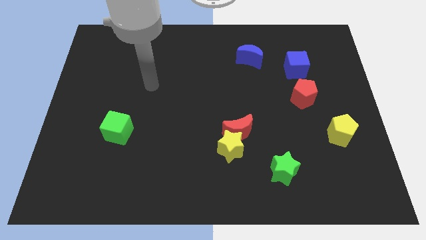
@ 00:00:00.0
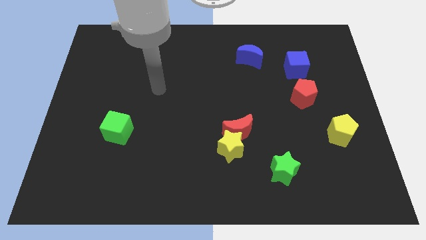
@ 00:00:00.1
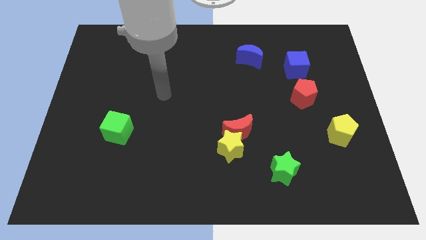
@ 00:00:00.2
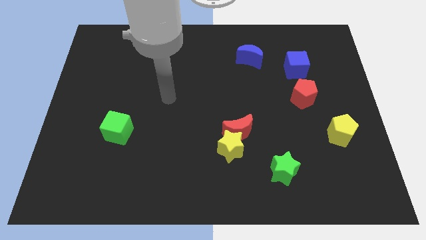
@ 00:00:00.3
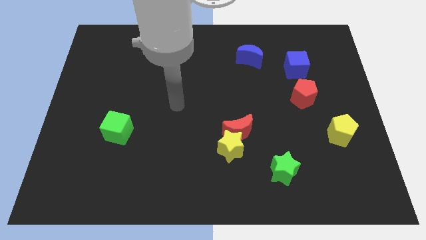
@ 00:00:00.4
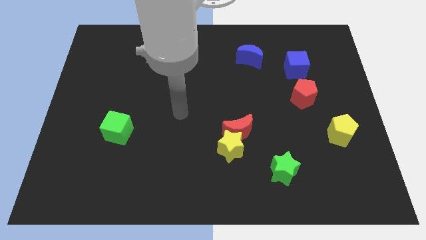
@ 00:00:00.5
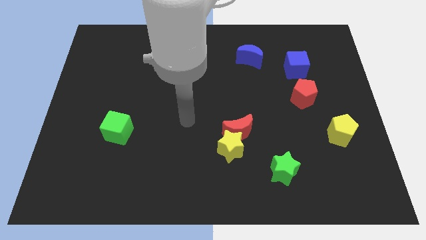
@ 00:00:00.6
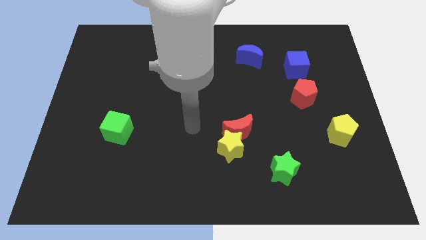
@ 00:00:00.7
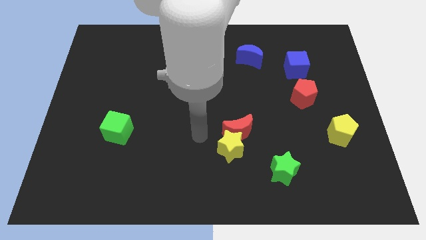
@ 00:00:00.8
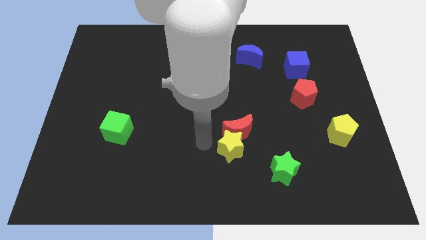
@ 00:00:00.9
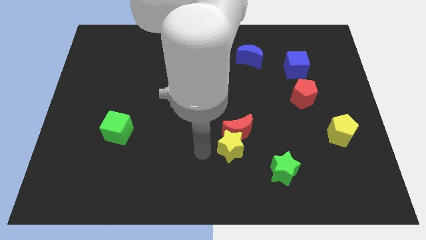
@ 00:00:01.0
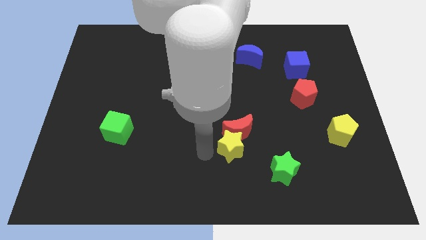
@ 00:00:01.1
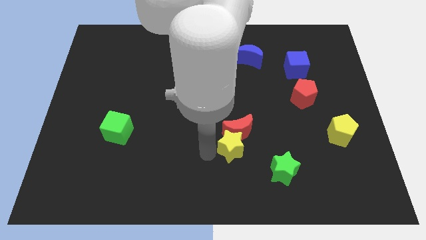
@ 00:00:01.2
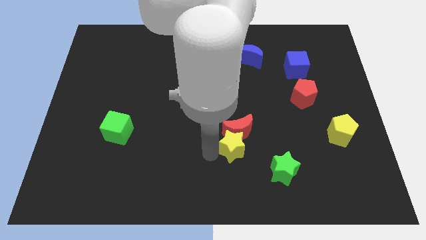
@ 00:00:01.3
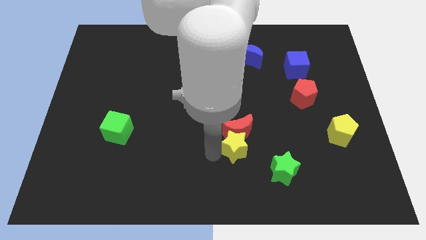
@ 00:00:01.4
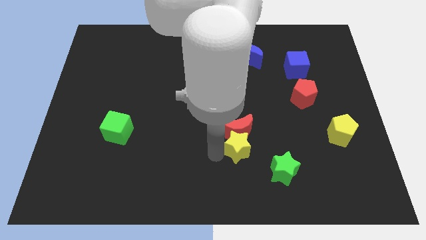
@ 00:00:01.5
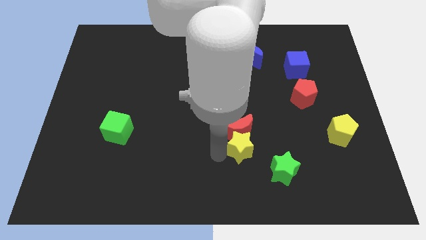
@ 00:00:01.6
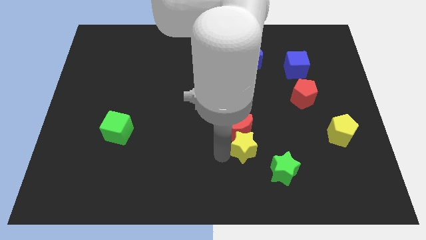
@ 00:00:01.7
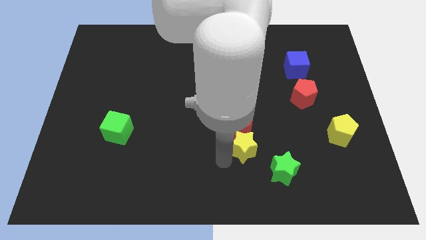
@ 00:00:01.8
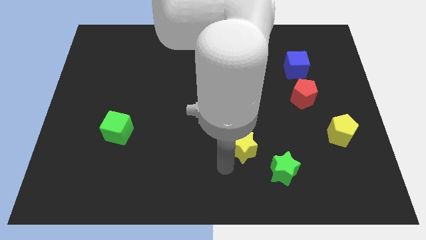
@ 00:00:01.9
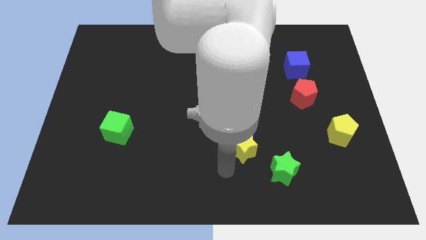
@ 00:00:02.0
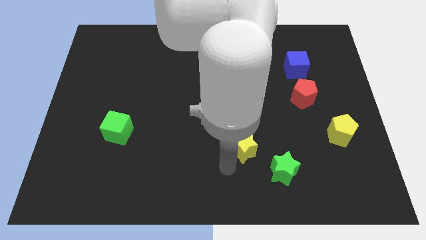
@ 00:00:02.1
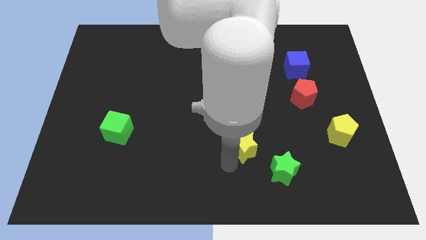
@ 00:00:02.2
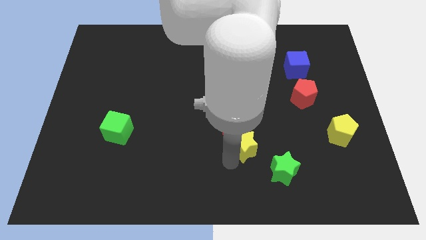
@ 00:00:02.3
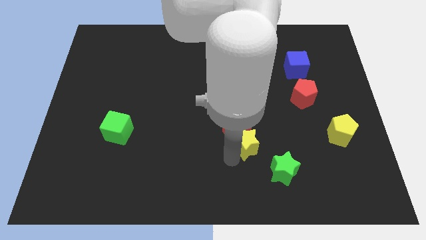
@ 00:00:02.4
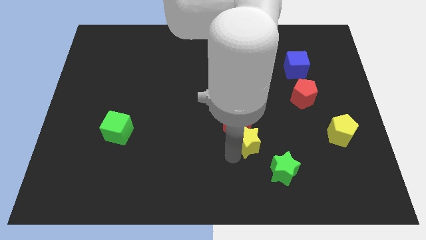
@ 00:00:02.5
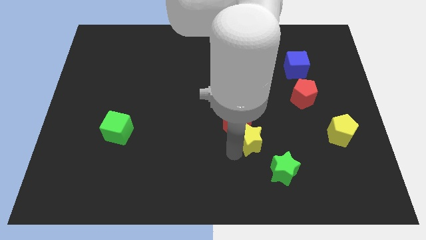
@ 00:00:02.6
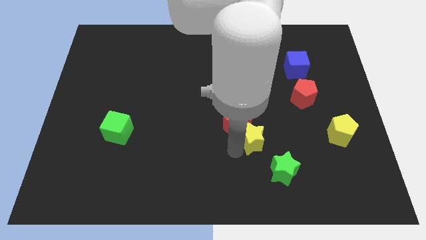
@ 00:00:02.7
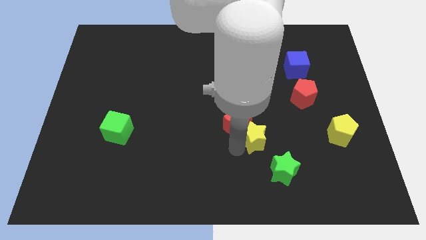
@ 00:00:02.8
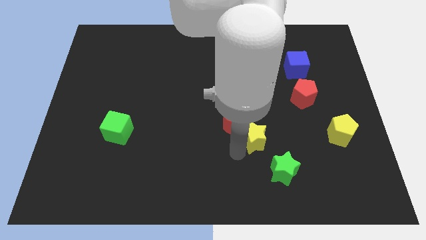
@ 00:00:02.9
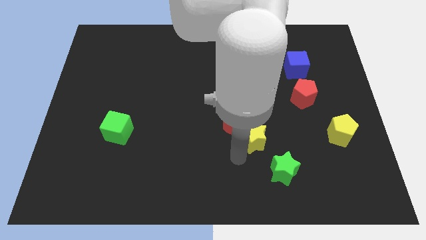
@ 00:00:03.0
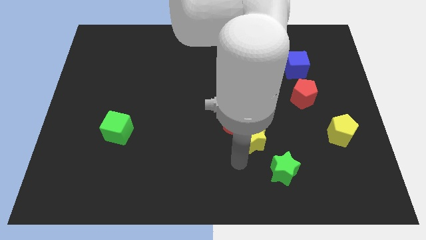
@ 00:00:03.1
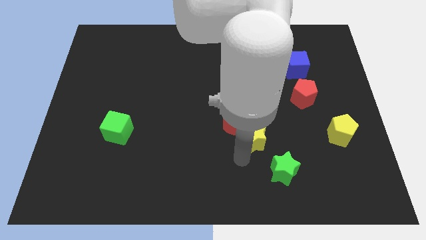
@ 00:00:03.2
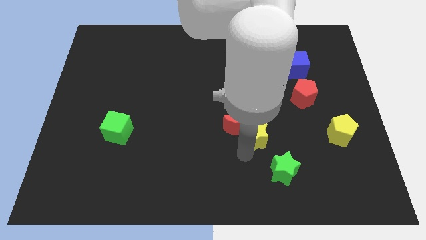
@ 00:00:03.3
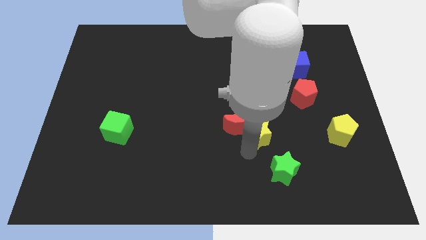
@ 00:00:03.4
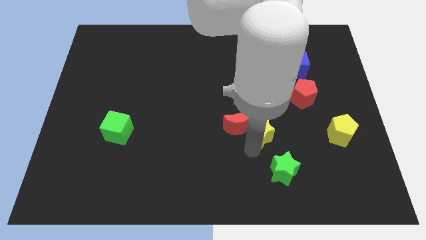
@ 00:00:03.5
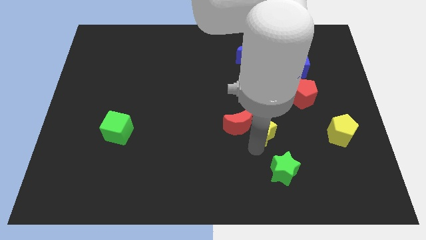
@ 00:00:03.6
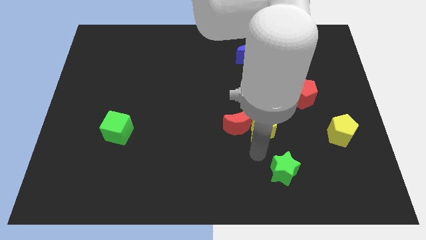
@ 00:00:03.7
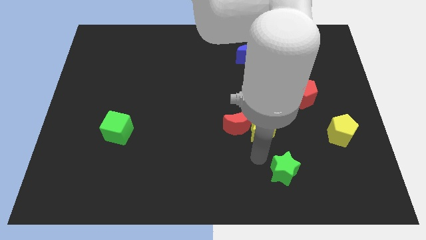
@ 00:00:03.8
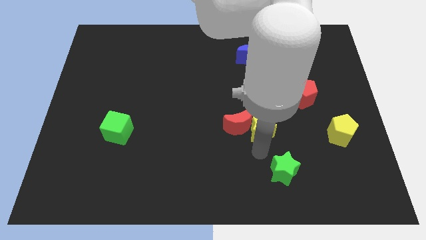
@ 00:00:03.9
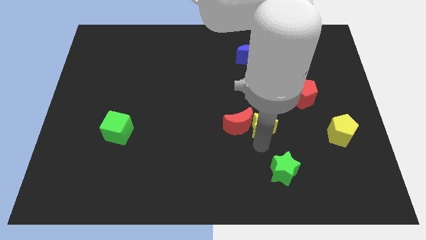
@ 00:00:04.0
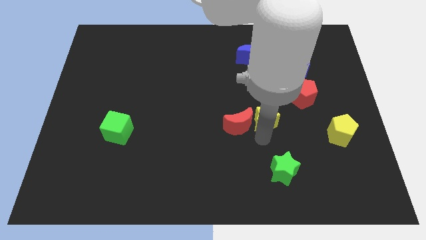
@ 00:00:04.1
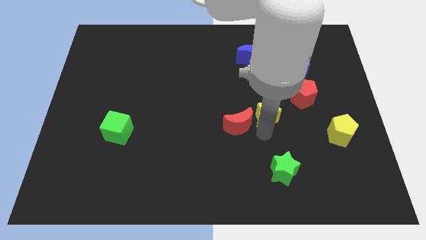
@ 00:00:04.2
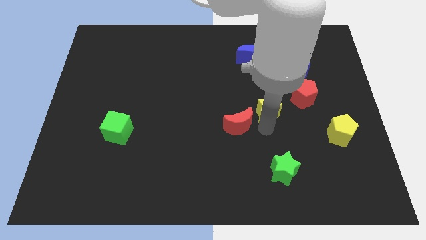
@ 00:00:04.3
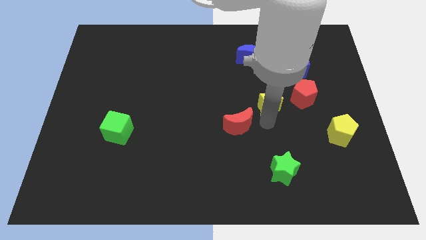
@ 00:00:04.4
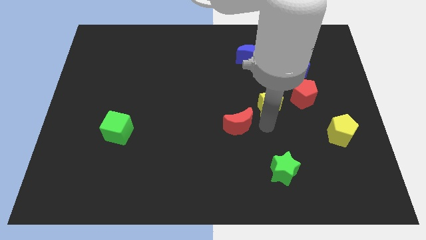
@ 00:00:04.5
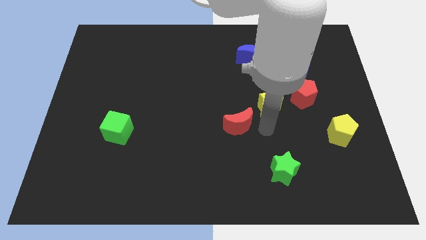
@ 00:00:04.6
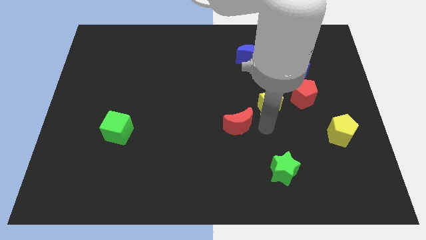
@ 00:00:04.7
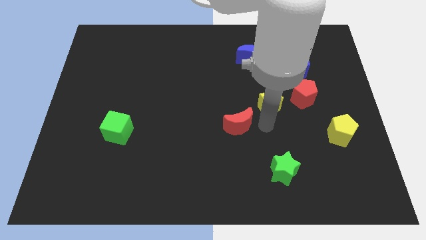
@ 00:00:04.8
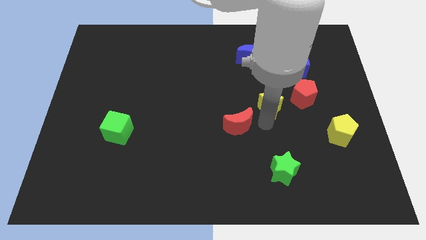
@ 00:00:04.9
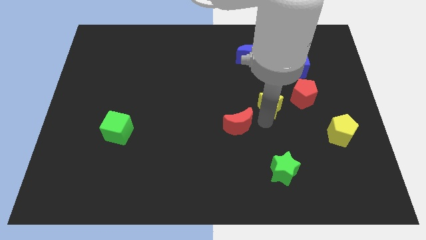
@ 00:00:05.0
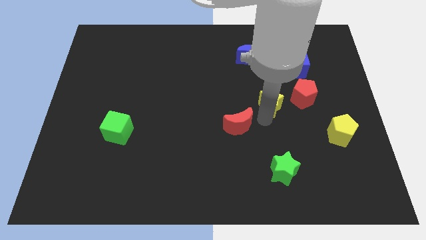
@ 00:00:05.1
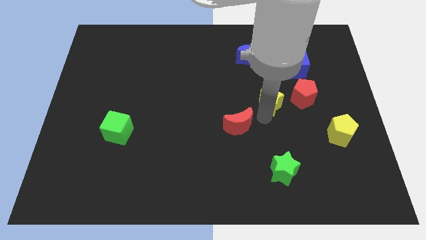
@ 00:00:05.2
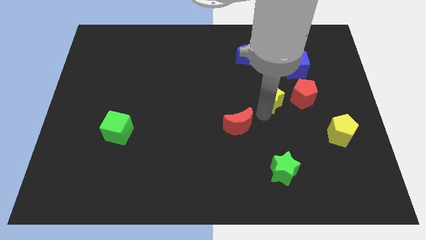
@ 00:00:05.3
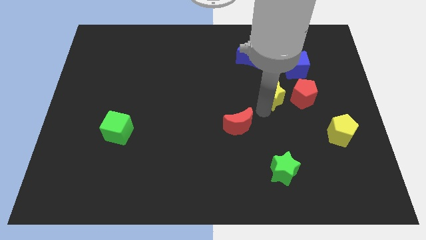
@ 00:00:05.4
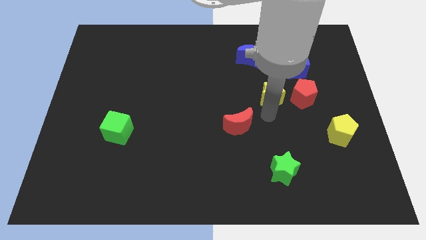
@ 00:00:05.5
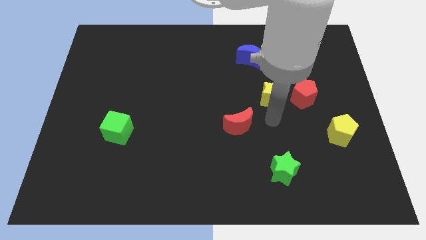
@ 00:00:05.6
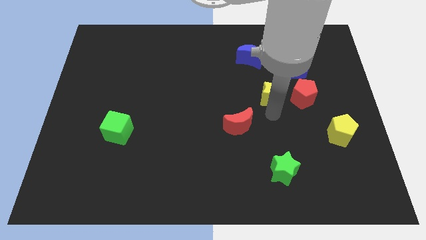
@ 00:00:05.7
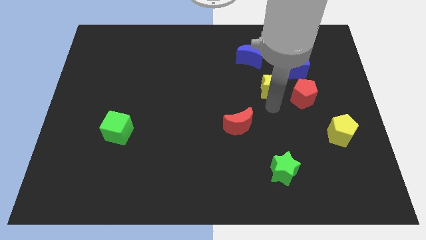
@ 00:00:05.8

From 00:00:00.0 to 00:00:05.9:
put the yellow star diagonally down and to the right of the blue moon

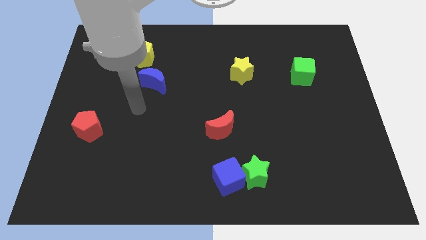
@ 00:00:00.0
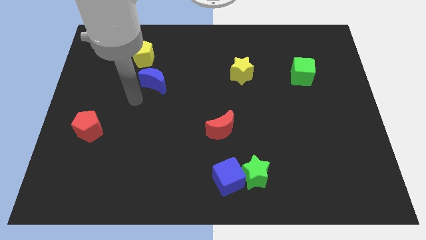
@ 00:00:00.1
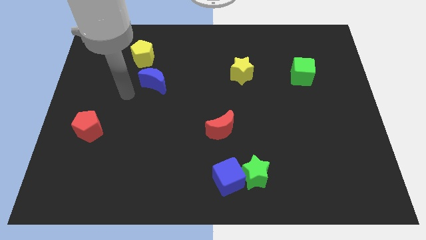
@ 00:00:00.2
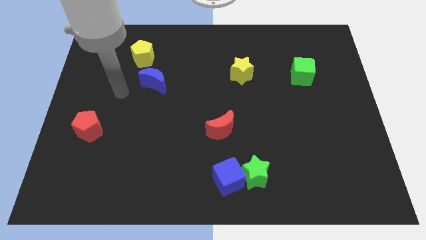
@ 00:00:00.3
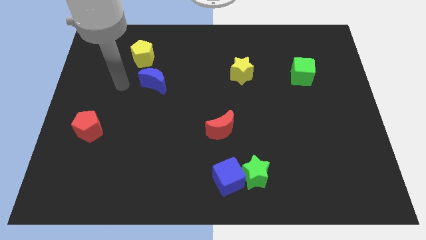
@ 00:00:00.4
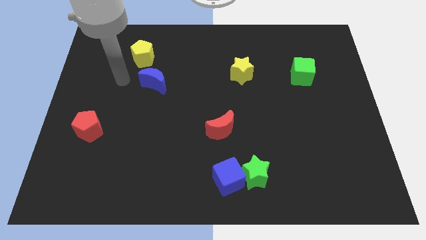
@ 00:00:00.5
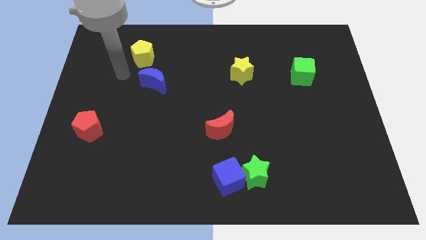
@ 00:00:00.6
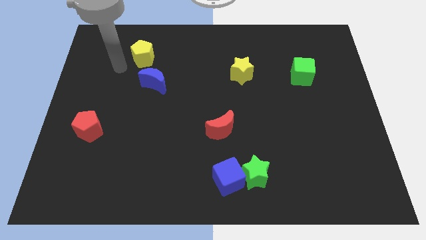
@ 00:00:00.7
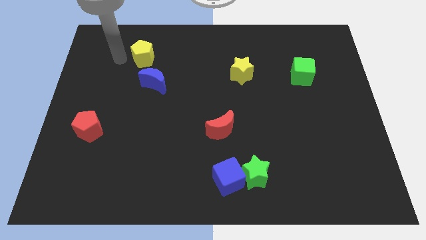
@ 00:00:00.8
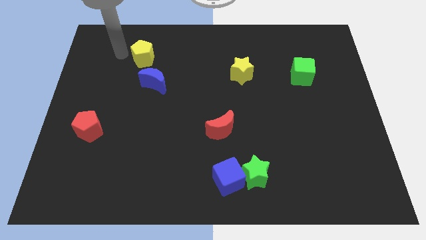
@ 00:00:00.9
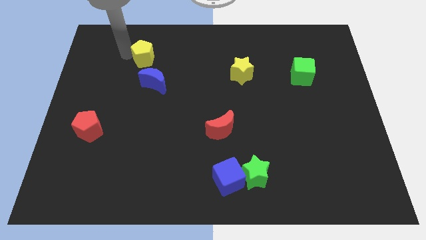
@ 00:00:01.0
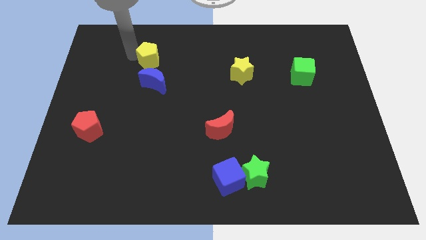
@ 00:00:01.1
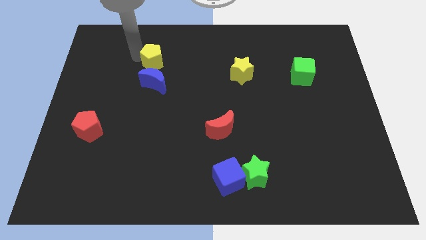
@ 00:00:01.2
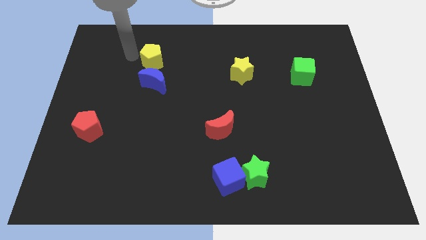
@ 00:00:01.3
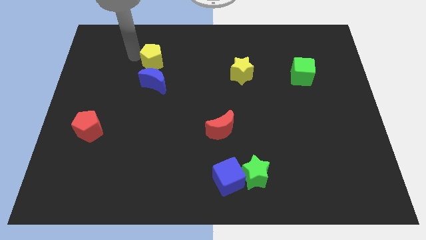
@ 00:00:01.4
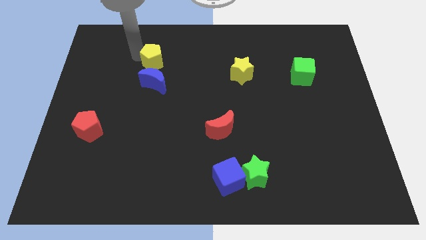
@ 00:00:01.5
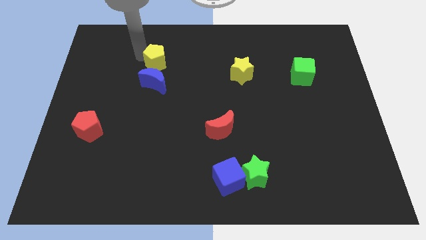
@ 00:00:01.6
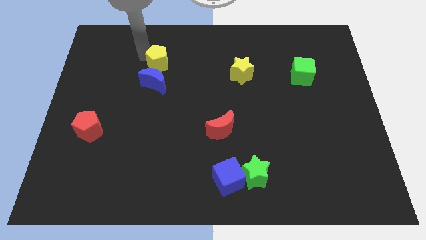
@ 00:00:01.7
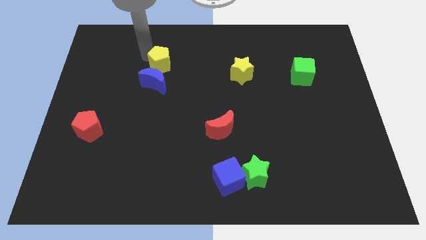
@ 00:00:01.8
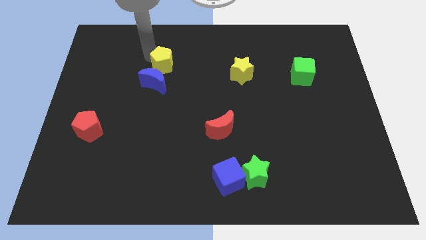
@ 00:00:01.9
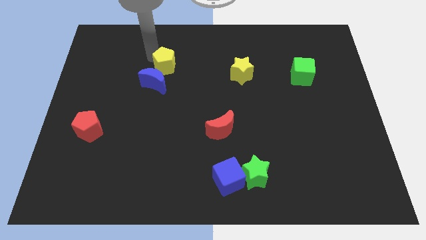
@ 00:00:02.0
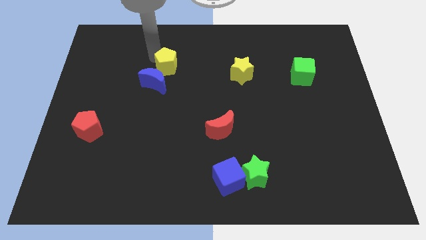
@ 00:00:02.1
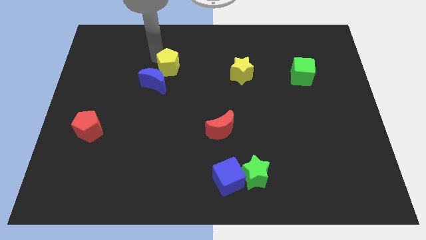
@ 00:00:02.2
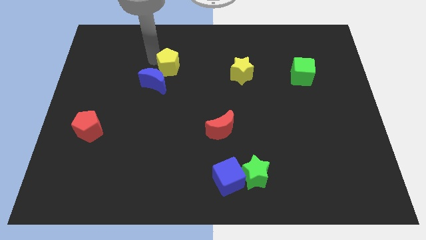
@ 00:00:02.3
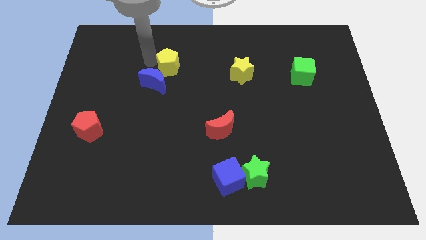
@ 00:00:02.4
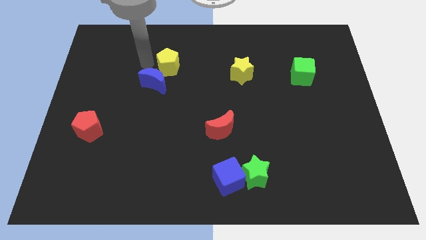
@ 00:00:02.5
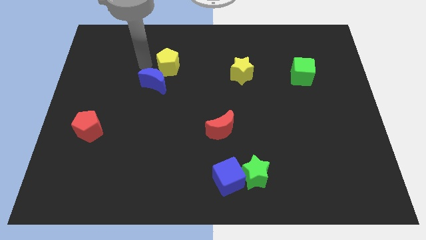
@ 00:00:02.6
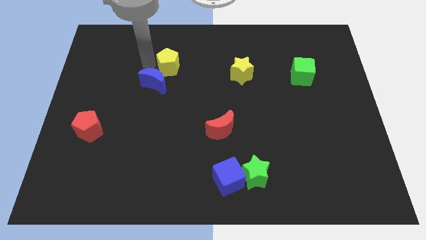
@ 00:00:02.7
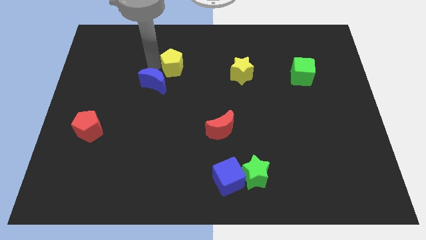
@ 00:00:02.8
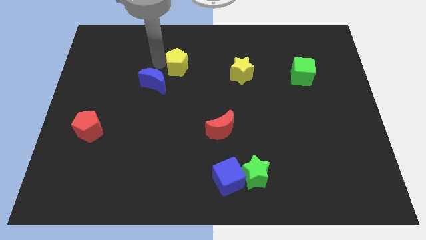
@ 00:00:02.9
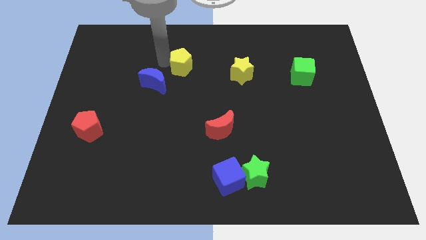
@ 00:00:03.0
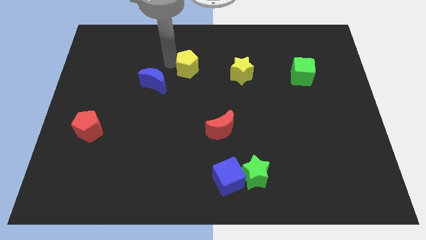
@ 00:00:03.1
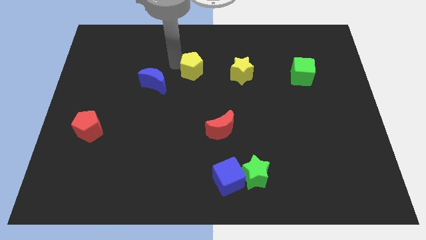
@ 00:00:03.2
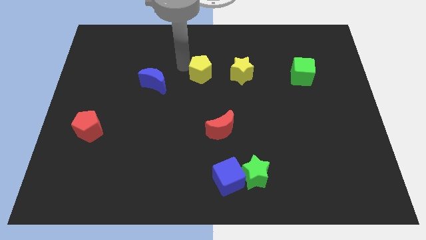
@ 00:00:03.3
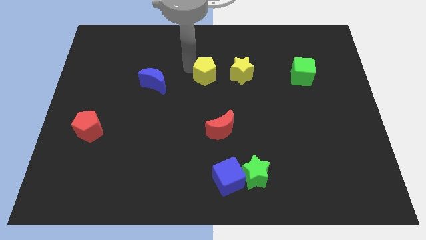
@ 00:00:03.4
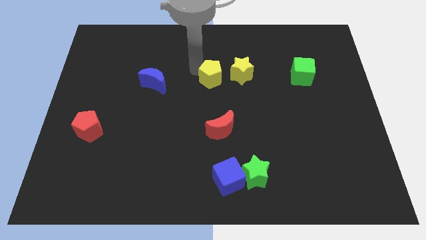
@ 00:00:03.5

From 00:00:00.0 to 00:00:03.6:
push the yellow pentagon diagonally down and to the left of the yellow star
